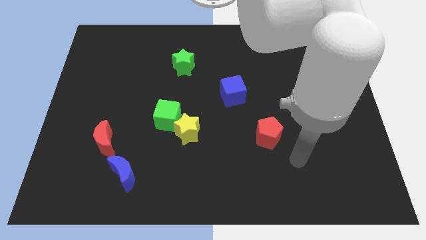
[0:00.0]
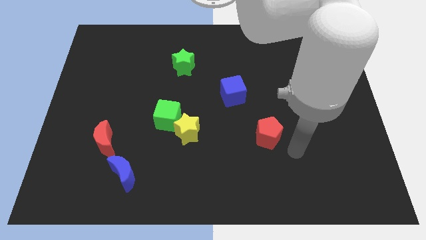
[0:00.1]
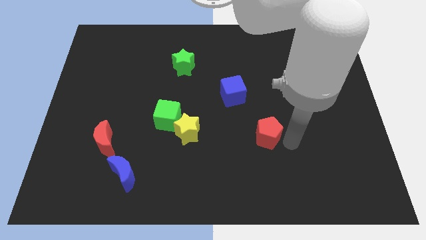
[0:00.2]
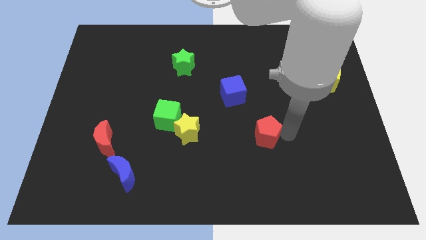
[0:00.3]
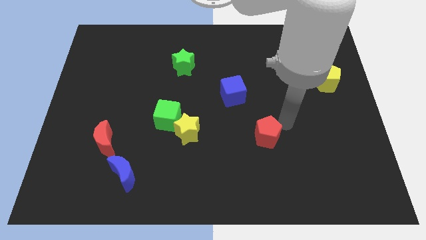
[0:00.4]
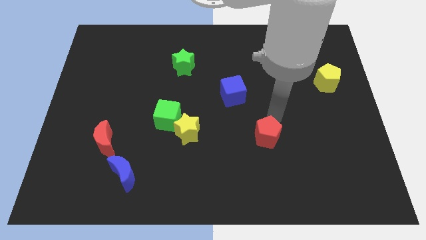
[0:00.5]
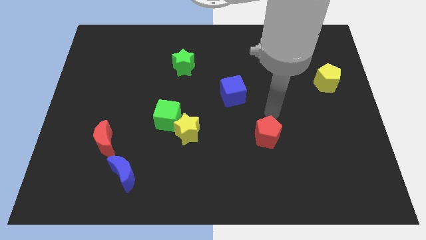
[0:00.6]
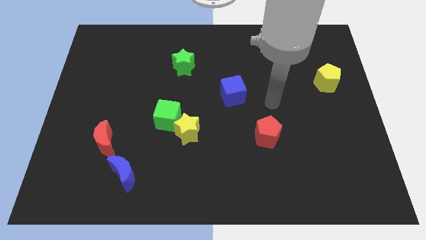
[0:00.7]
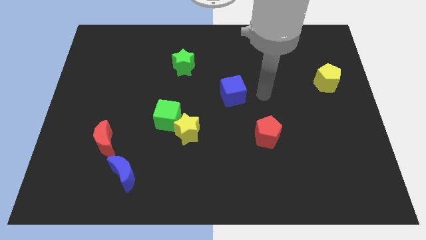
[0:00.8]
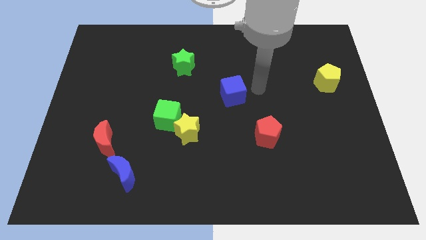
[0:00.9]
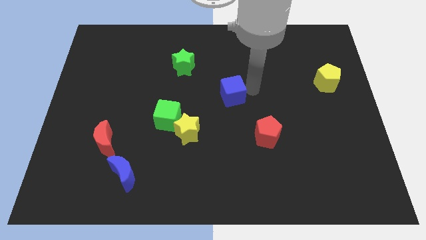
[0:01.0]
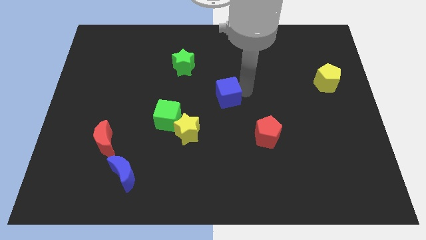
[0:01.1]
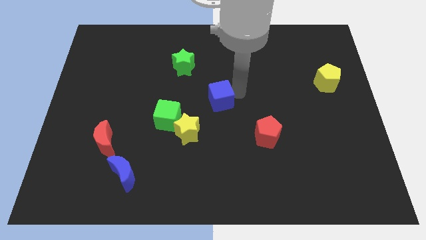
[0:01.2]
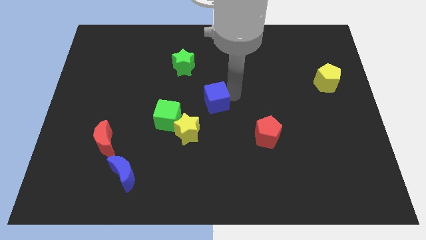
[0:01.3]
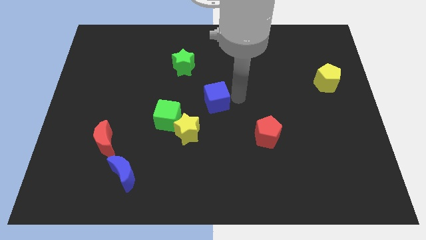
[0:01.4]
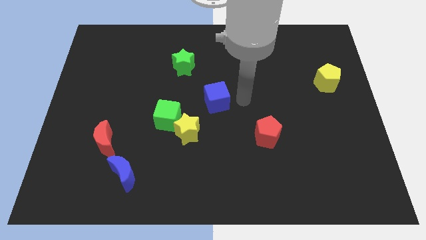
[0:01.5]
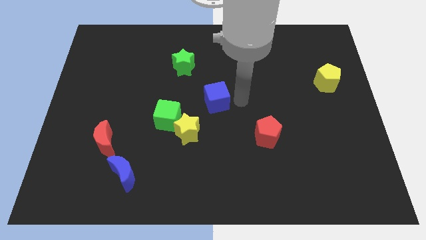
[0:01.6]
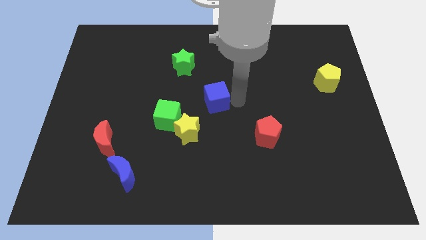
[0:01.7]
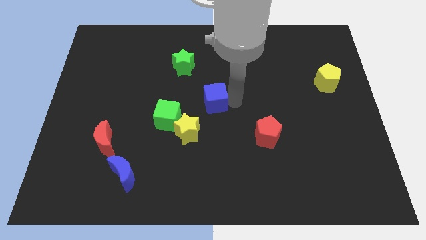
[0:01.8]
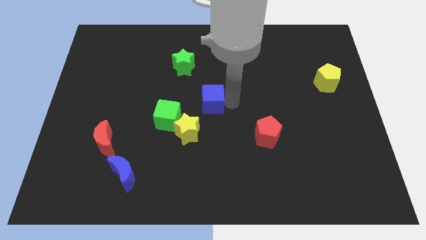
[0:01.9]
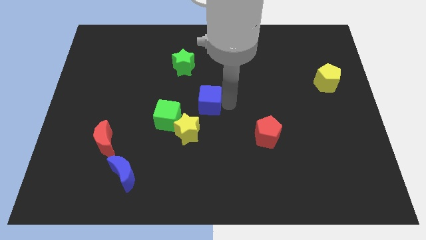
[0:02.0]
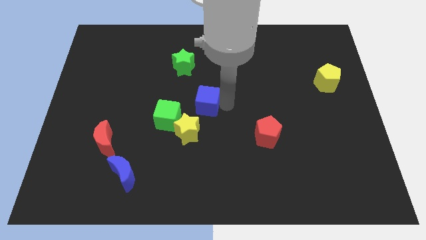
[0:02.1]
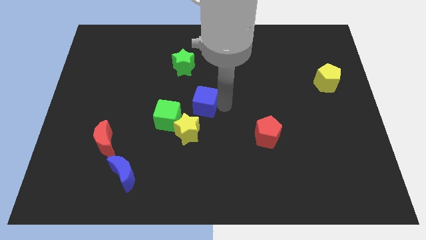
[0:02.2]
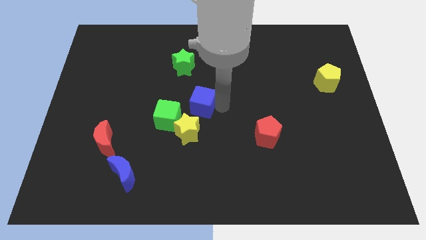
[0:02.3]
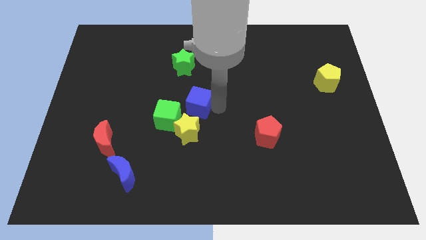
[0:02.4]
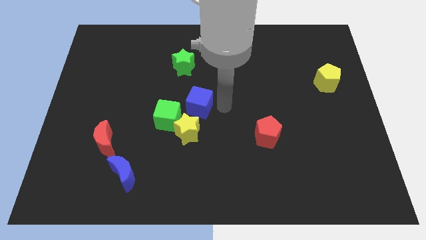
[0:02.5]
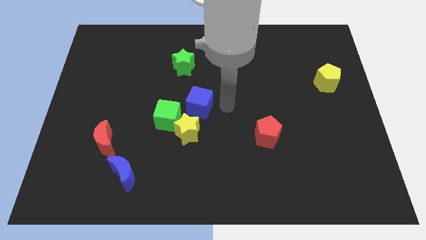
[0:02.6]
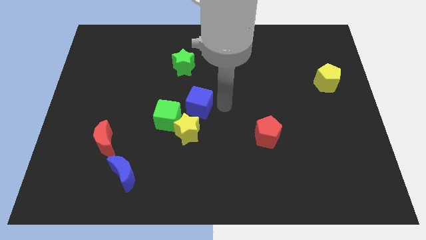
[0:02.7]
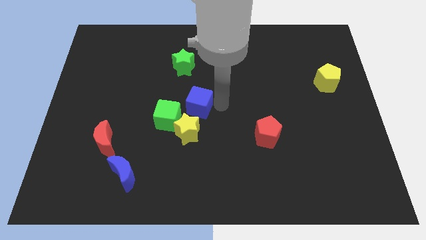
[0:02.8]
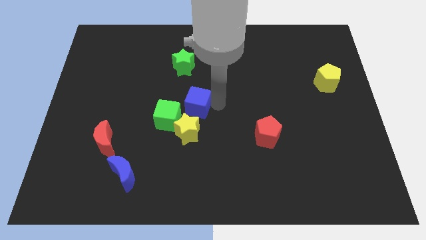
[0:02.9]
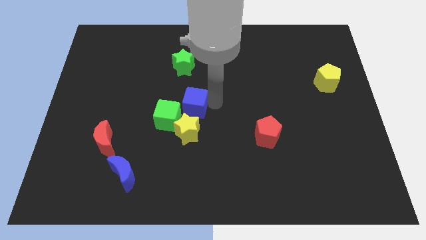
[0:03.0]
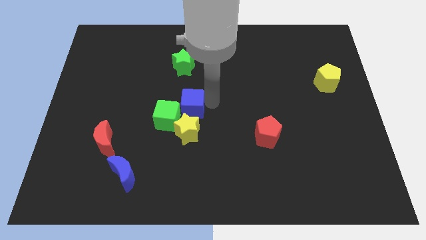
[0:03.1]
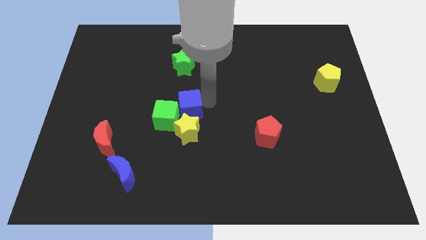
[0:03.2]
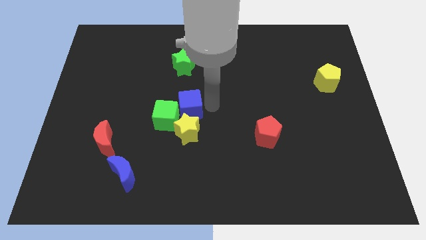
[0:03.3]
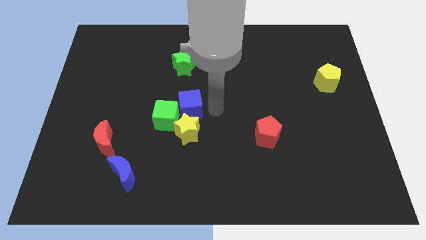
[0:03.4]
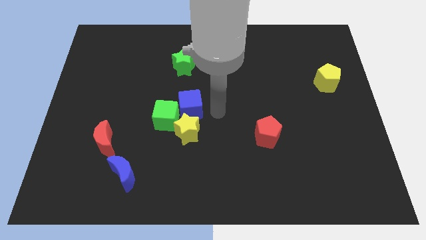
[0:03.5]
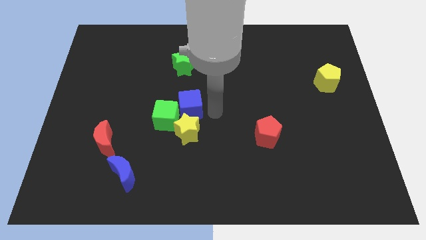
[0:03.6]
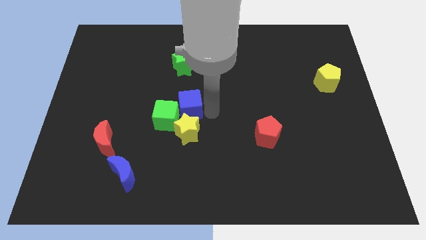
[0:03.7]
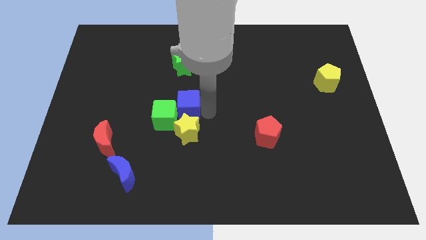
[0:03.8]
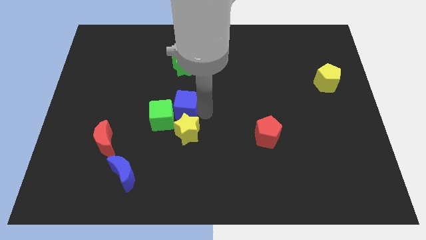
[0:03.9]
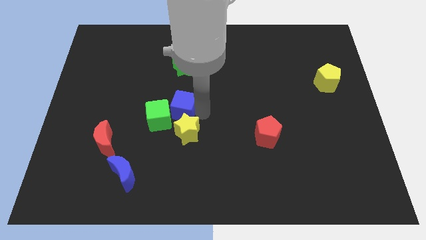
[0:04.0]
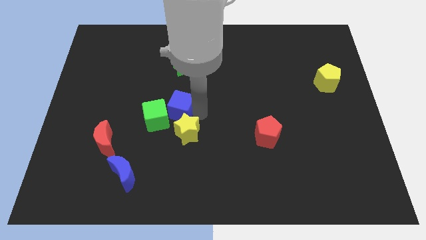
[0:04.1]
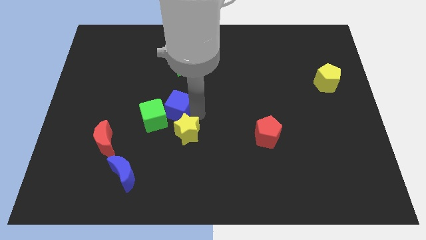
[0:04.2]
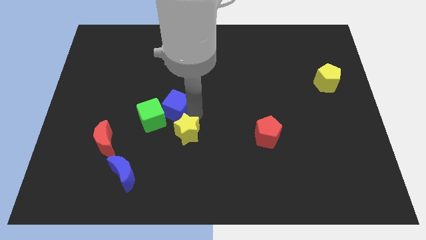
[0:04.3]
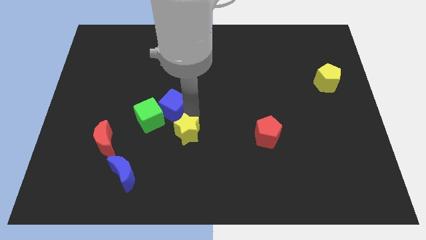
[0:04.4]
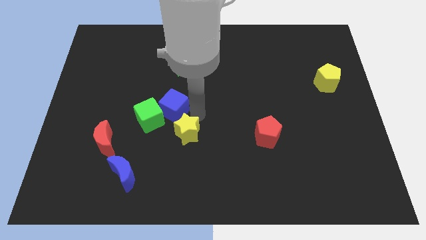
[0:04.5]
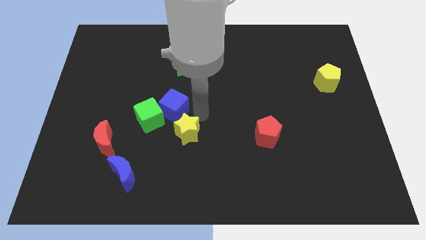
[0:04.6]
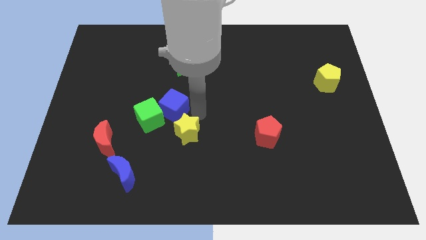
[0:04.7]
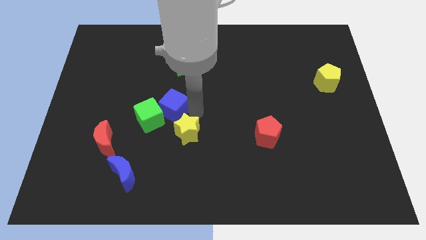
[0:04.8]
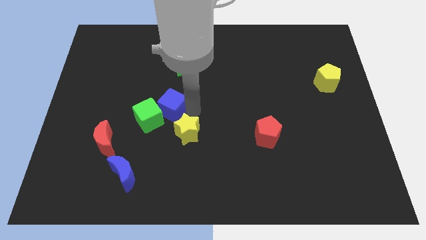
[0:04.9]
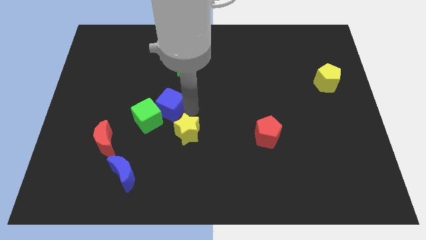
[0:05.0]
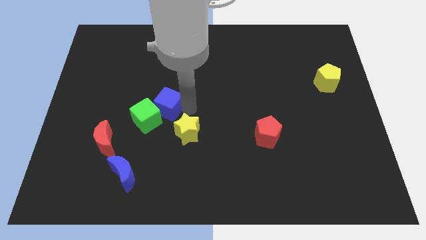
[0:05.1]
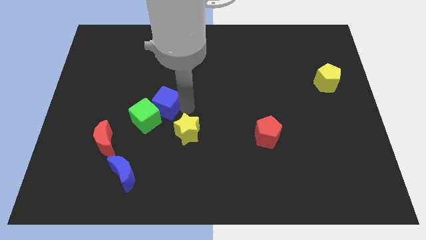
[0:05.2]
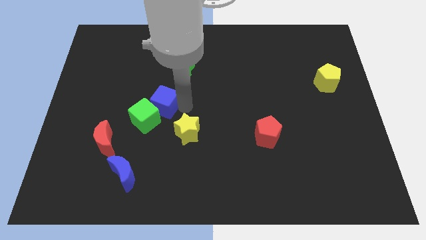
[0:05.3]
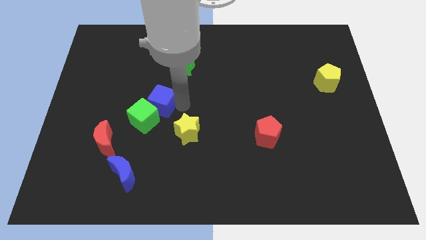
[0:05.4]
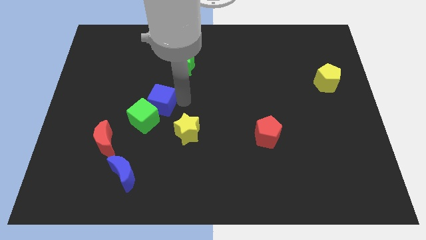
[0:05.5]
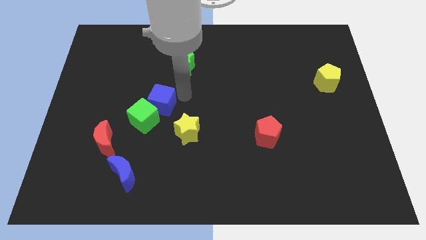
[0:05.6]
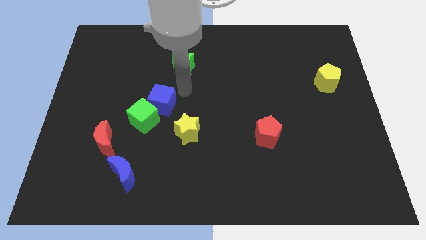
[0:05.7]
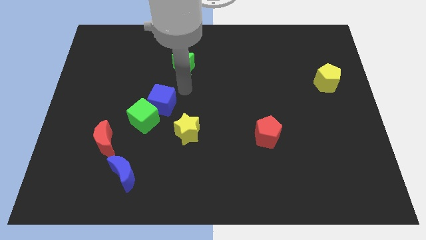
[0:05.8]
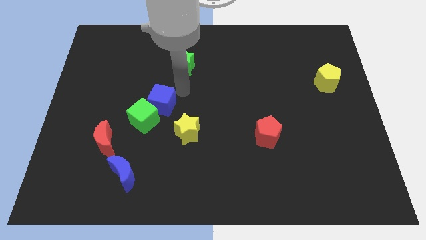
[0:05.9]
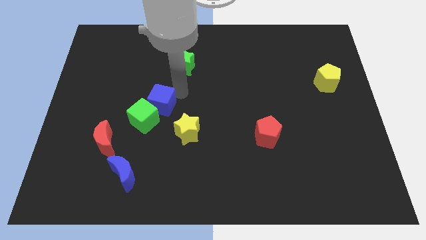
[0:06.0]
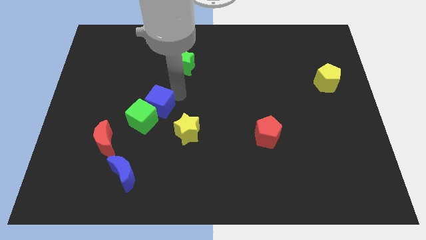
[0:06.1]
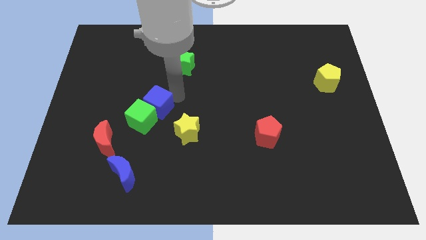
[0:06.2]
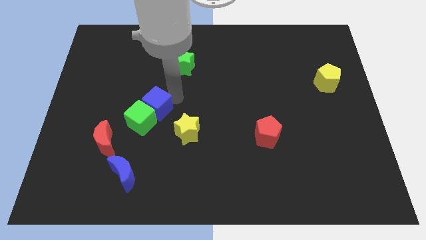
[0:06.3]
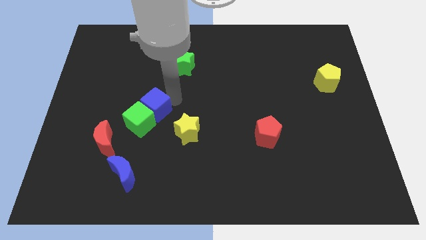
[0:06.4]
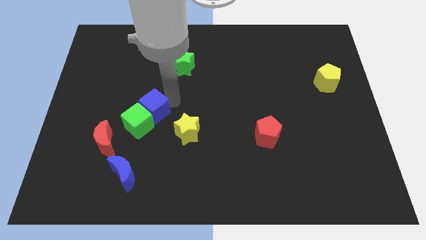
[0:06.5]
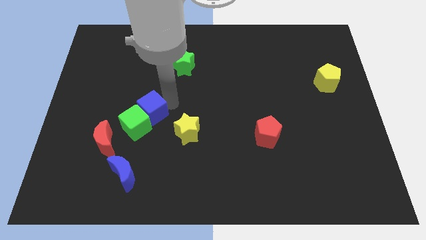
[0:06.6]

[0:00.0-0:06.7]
slide the blue cube to the top right of the red moon

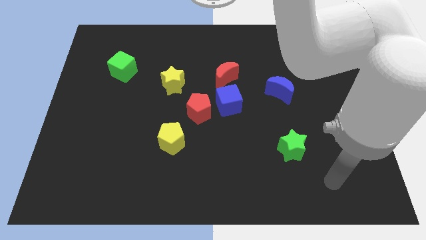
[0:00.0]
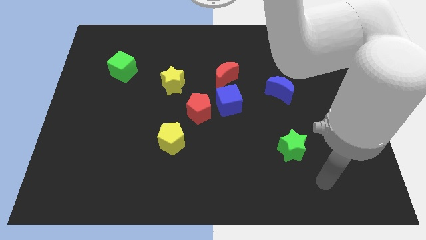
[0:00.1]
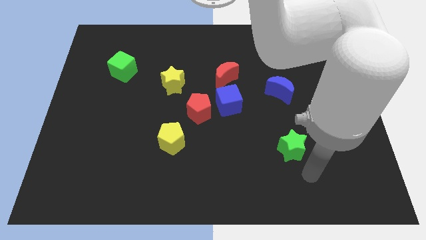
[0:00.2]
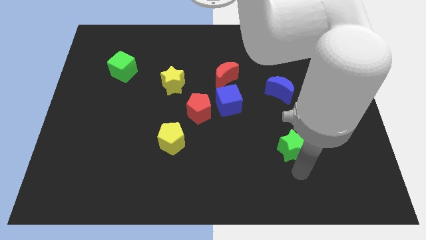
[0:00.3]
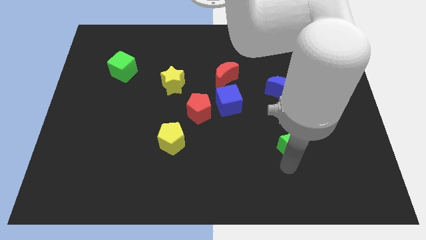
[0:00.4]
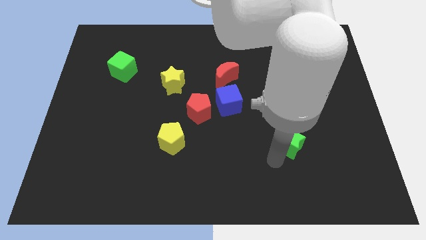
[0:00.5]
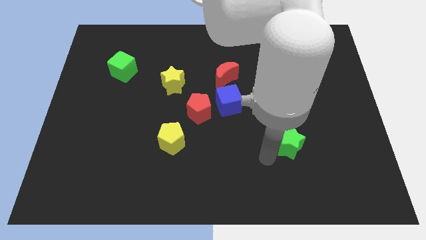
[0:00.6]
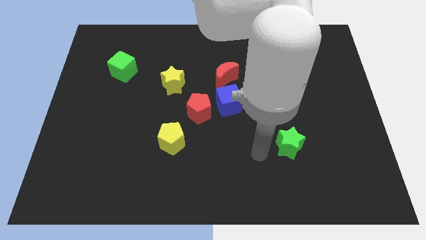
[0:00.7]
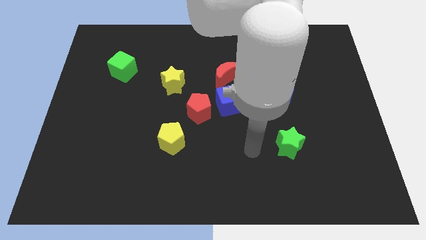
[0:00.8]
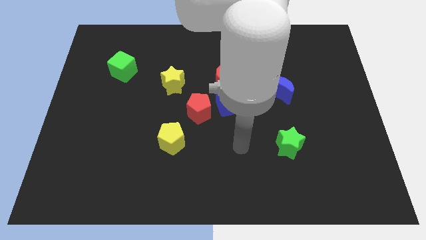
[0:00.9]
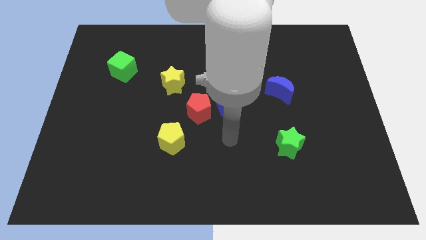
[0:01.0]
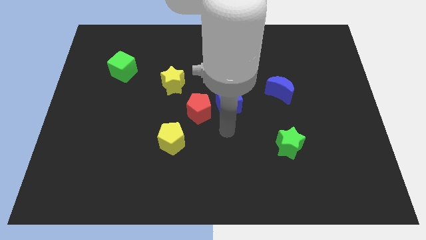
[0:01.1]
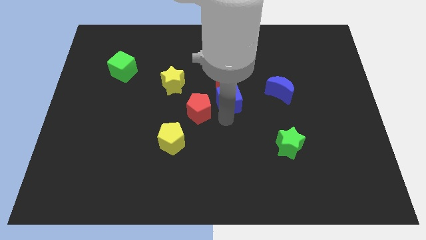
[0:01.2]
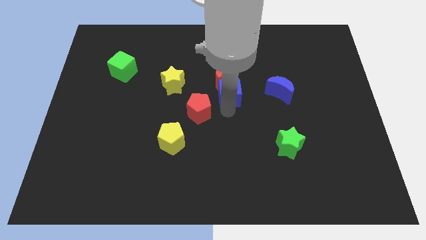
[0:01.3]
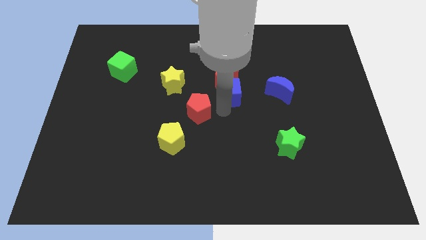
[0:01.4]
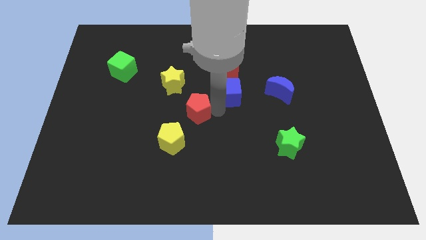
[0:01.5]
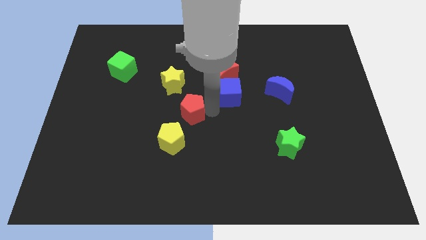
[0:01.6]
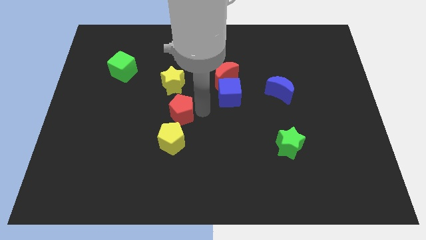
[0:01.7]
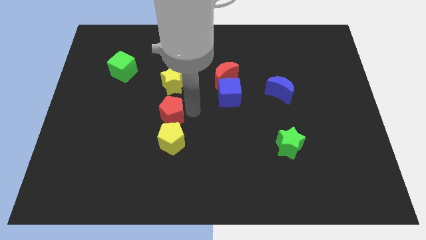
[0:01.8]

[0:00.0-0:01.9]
move the red pentagon to the top left side of the yellow pentagon
